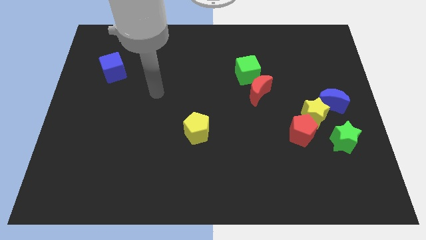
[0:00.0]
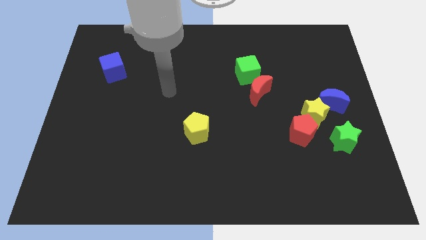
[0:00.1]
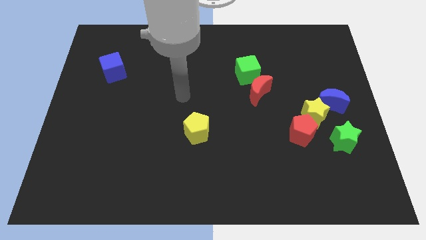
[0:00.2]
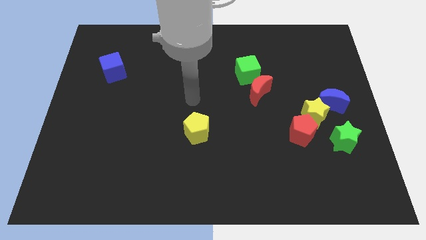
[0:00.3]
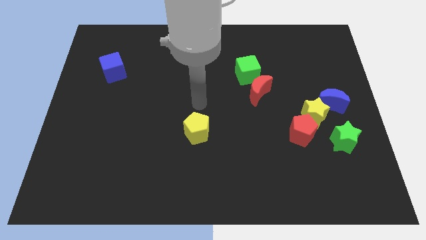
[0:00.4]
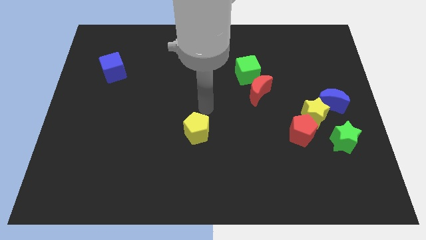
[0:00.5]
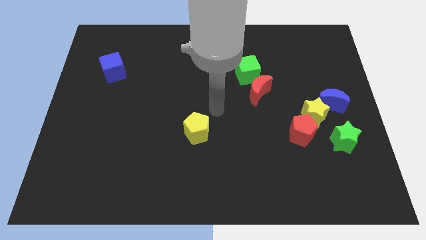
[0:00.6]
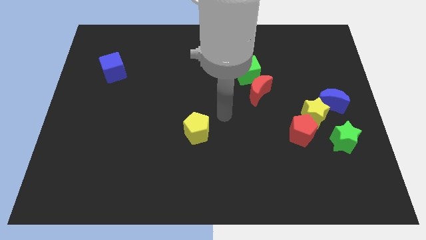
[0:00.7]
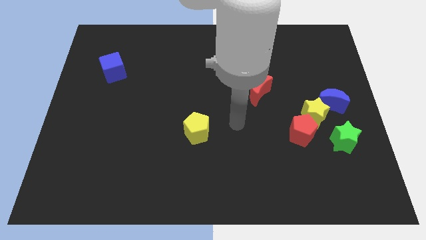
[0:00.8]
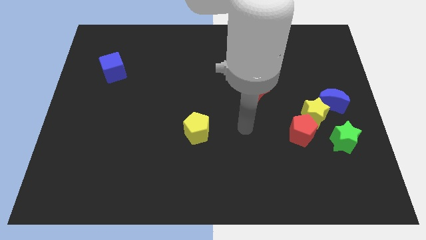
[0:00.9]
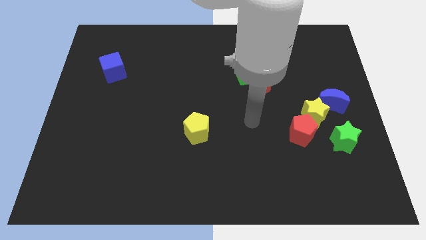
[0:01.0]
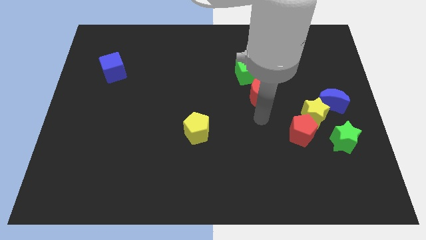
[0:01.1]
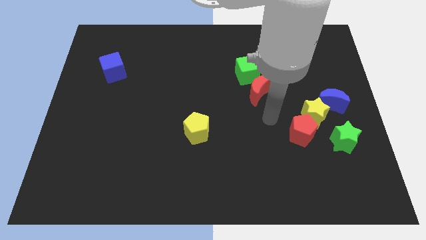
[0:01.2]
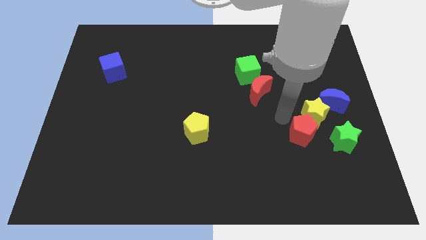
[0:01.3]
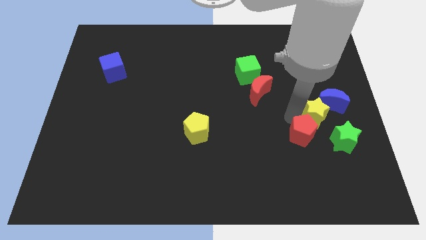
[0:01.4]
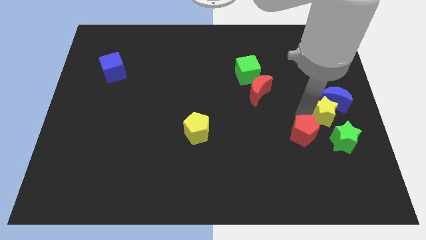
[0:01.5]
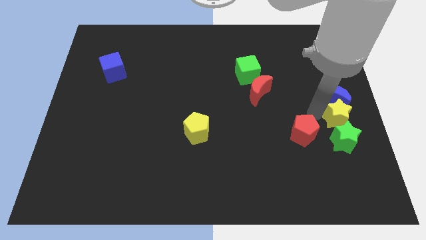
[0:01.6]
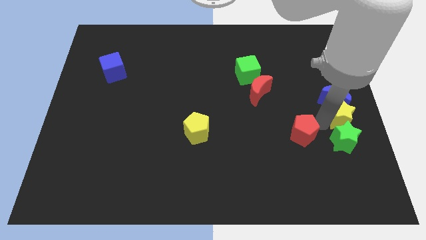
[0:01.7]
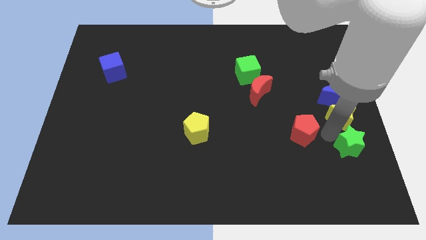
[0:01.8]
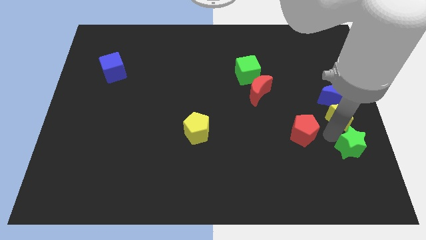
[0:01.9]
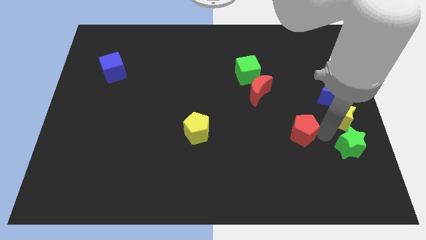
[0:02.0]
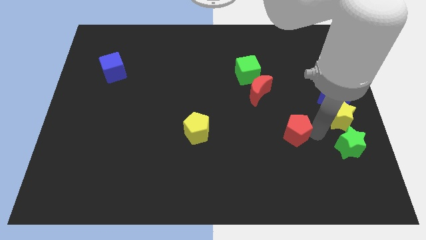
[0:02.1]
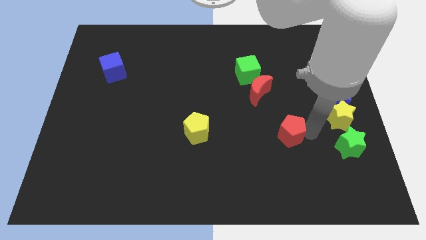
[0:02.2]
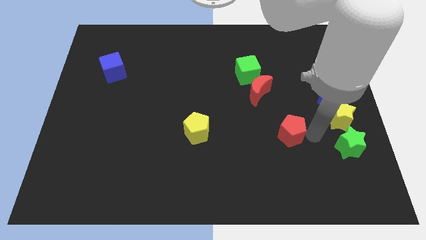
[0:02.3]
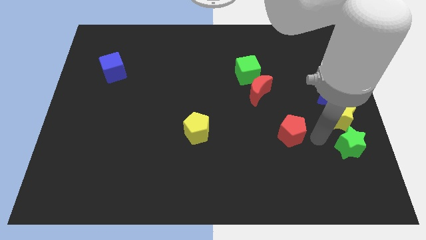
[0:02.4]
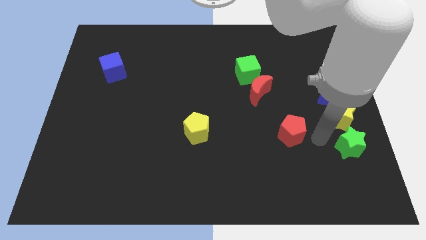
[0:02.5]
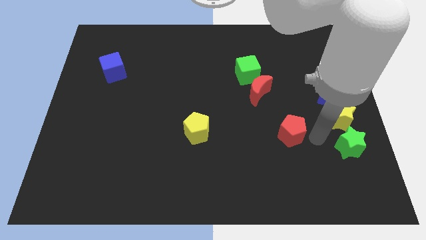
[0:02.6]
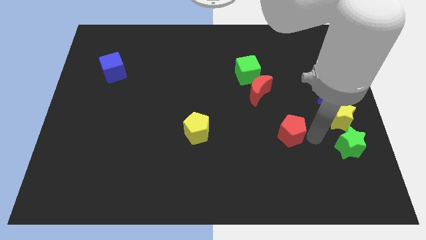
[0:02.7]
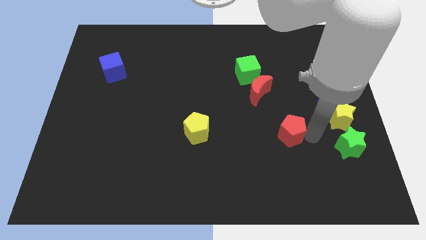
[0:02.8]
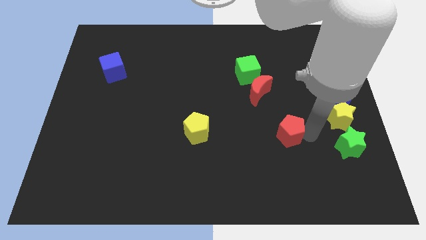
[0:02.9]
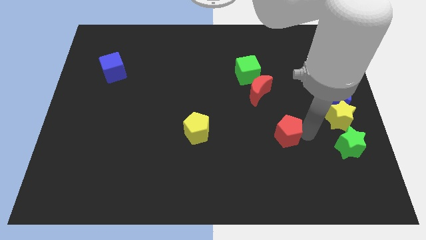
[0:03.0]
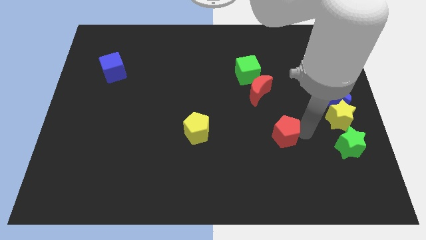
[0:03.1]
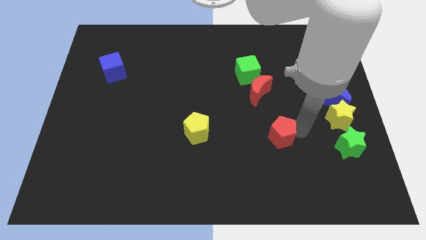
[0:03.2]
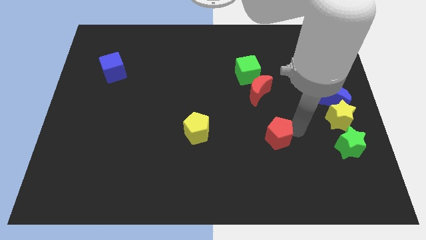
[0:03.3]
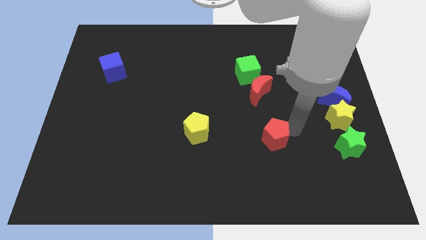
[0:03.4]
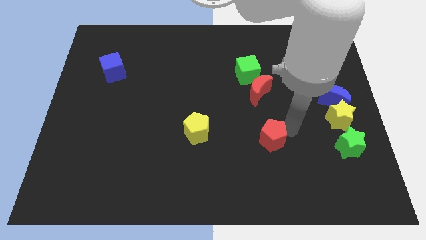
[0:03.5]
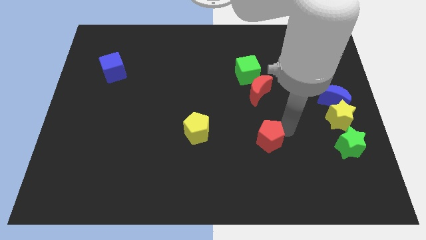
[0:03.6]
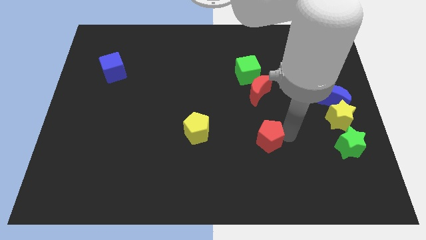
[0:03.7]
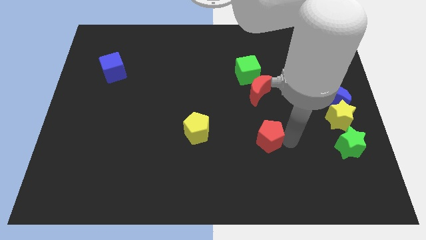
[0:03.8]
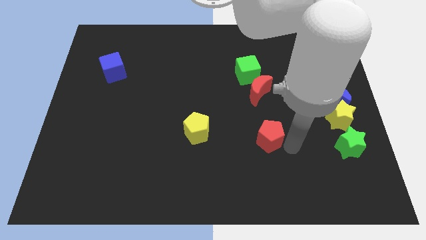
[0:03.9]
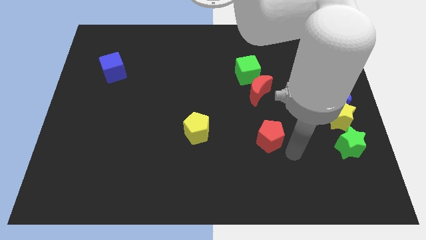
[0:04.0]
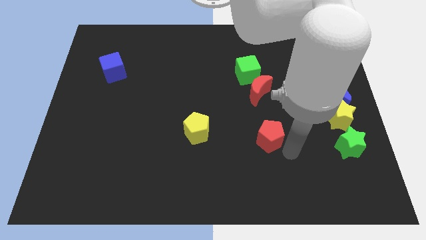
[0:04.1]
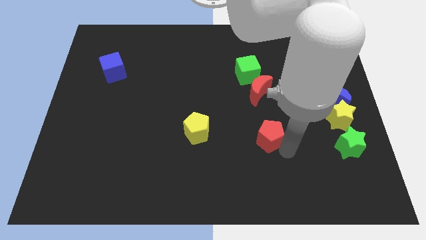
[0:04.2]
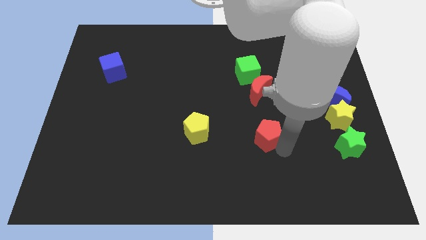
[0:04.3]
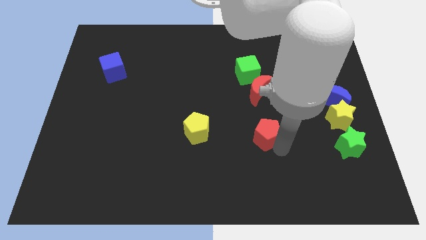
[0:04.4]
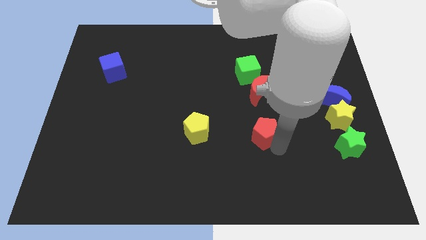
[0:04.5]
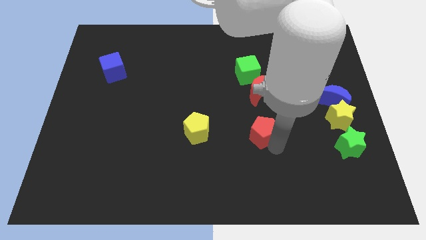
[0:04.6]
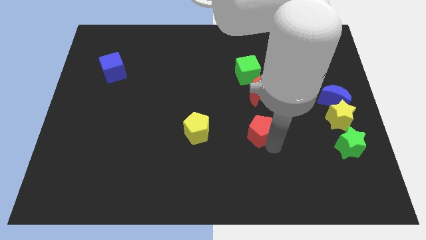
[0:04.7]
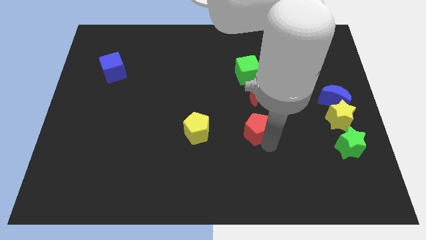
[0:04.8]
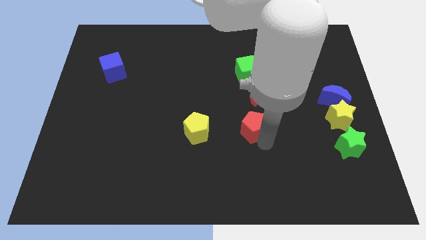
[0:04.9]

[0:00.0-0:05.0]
slide the red pentagon to the middle of the board

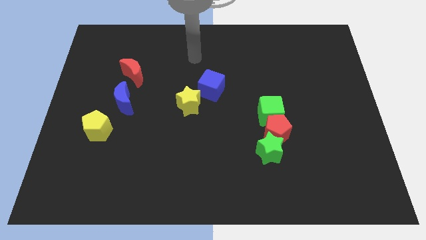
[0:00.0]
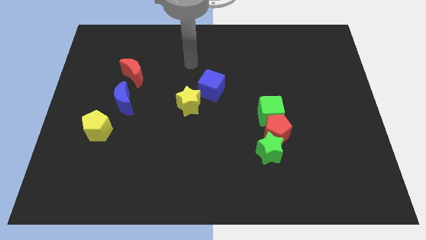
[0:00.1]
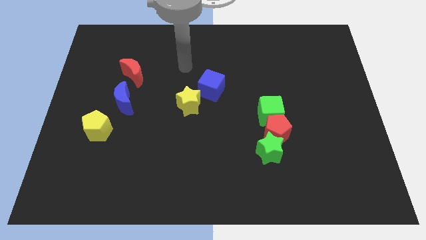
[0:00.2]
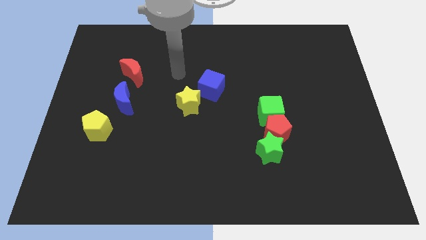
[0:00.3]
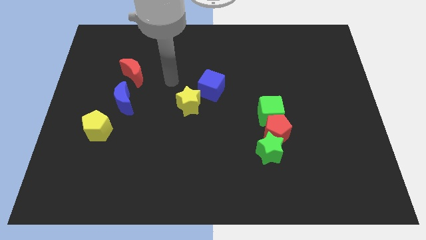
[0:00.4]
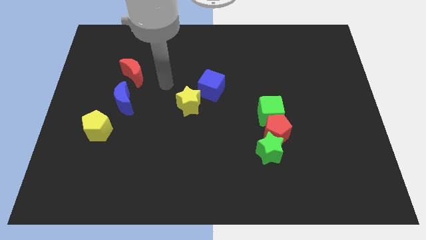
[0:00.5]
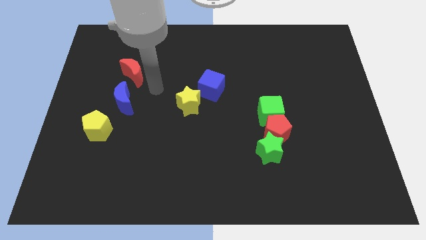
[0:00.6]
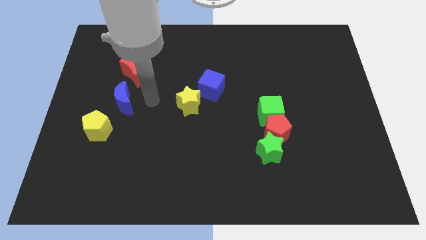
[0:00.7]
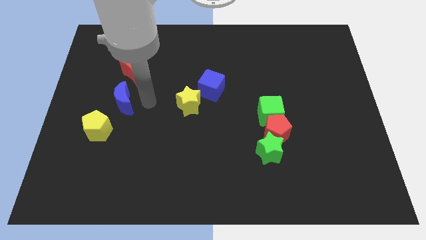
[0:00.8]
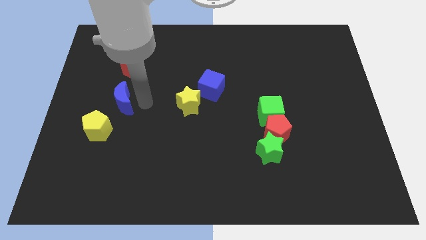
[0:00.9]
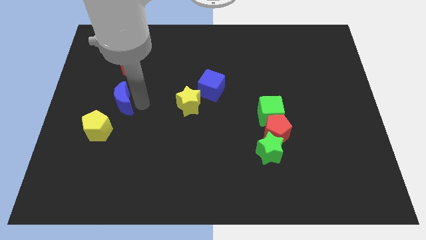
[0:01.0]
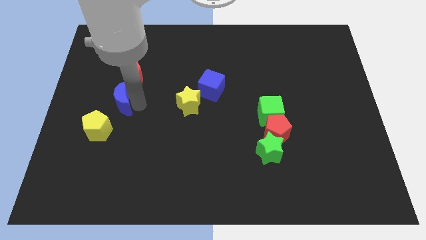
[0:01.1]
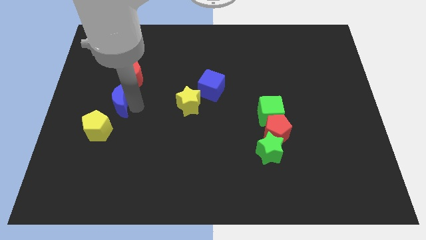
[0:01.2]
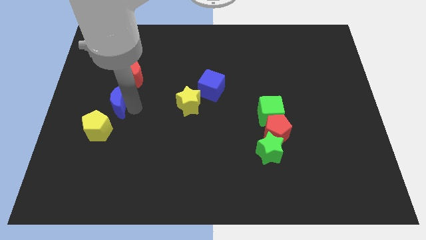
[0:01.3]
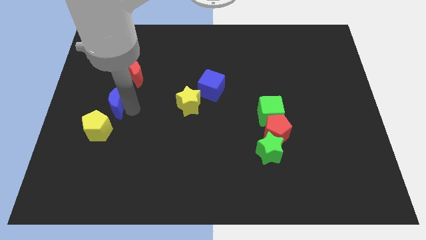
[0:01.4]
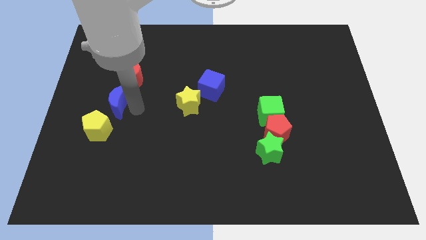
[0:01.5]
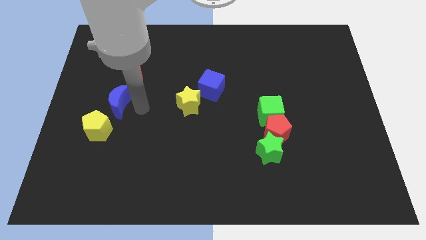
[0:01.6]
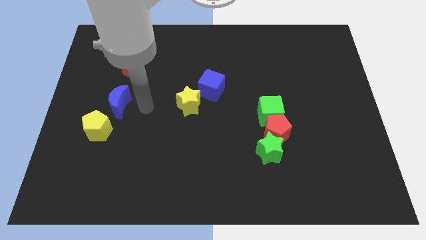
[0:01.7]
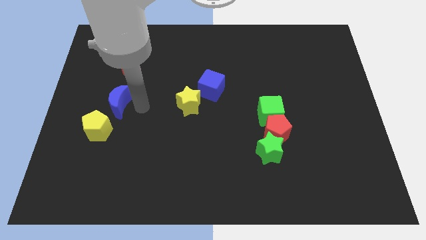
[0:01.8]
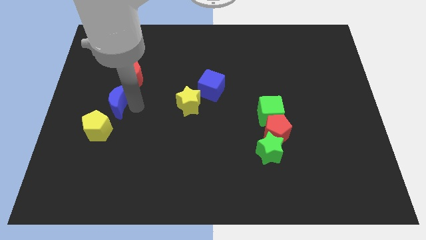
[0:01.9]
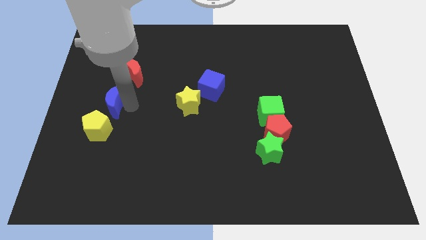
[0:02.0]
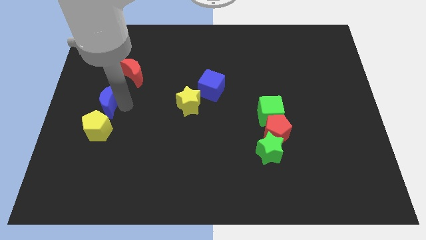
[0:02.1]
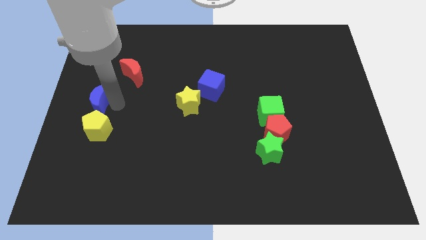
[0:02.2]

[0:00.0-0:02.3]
push the blue moon to the left side of the board
